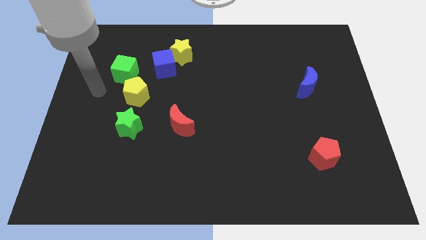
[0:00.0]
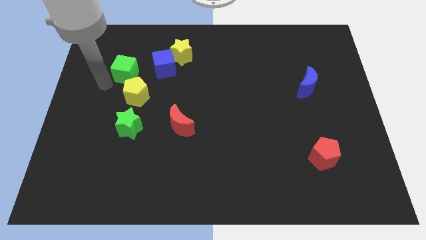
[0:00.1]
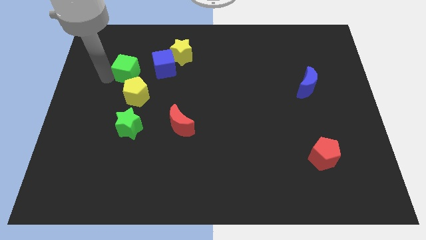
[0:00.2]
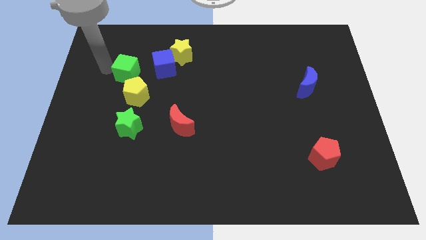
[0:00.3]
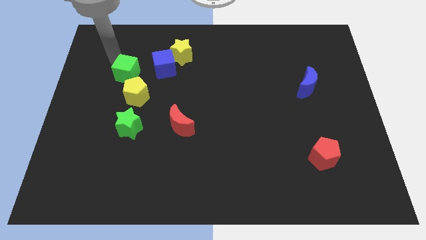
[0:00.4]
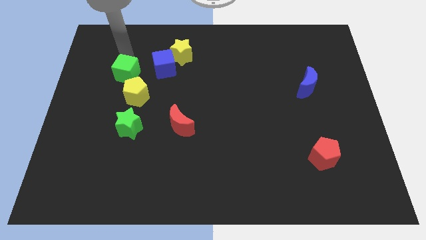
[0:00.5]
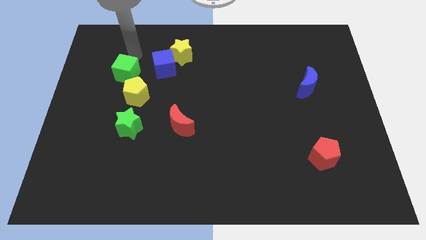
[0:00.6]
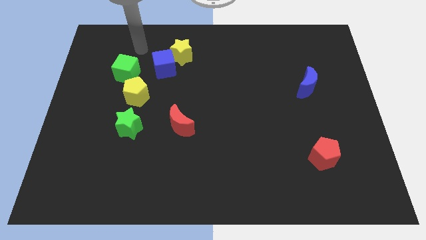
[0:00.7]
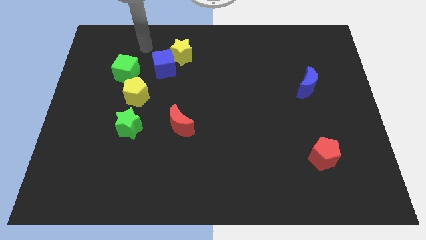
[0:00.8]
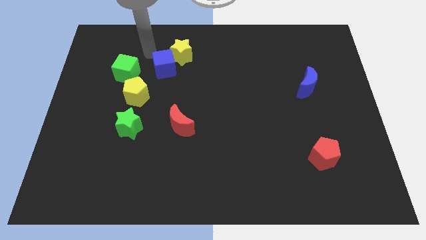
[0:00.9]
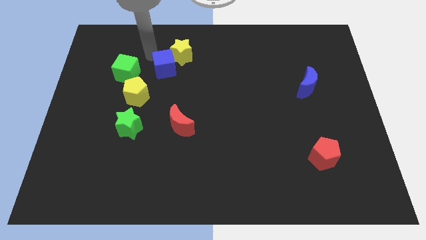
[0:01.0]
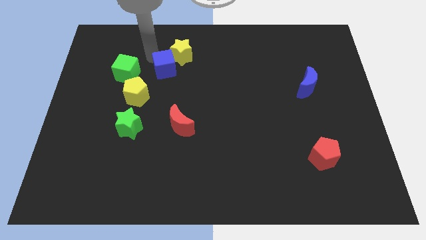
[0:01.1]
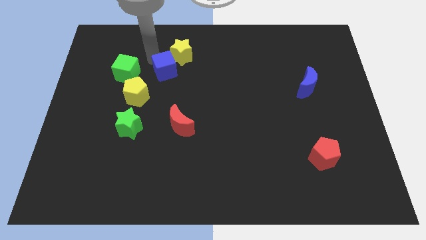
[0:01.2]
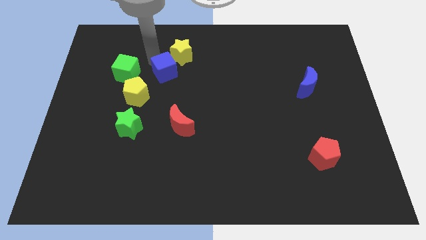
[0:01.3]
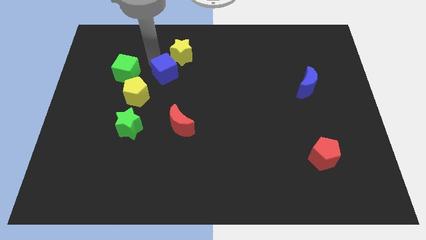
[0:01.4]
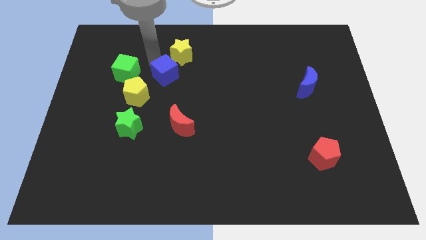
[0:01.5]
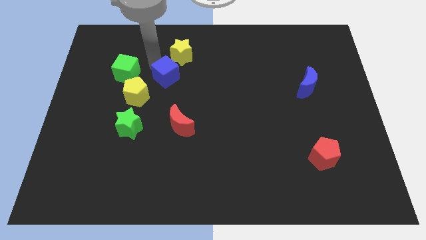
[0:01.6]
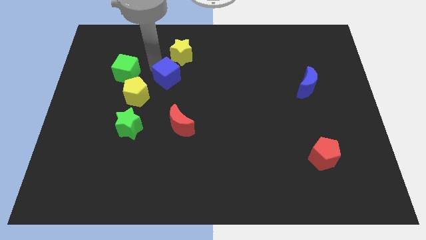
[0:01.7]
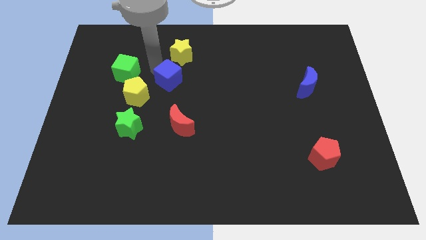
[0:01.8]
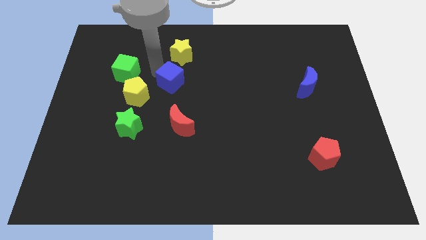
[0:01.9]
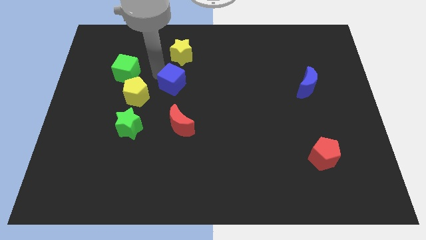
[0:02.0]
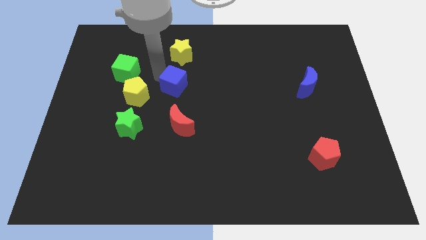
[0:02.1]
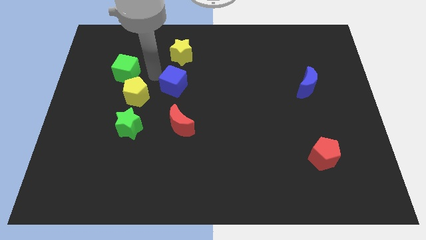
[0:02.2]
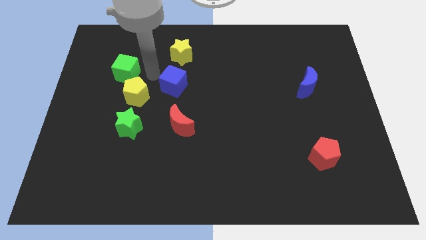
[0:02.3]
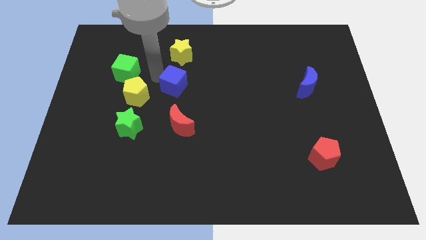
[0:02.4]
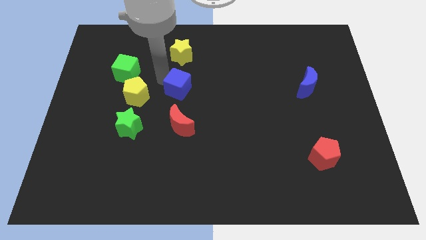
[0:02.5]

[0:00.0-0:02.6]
slide the blue cube downwards and to the right diagonally somewhat

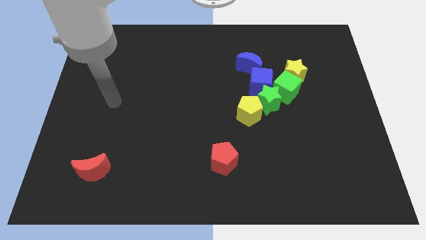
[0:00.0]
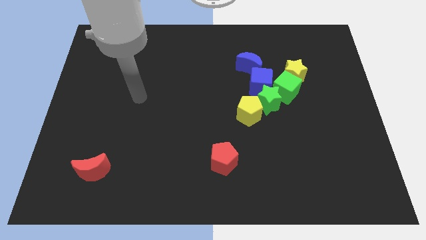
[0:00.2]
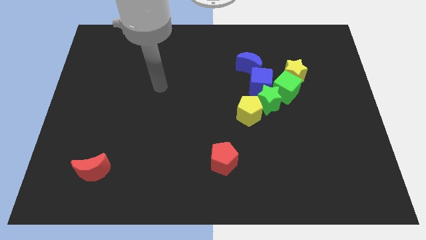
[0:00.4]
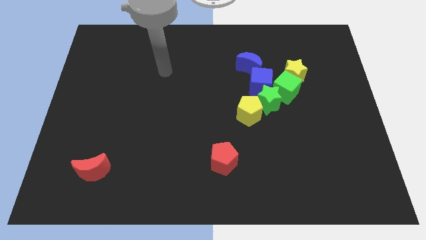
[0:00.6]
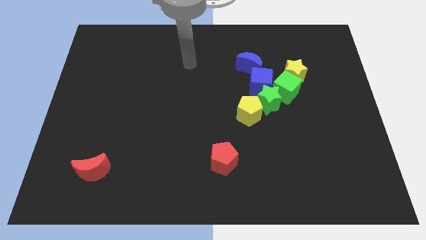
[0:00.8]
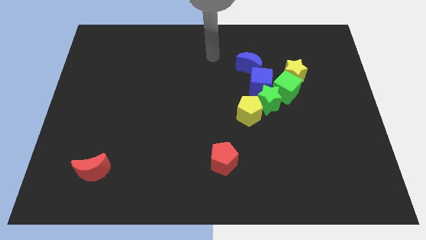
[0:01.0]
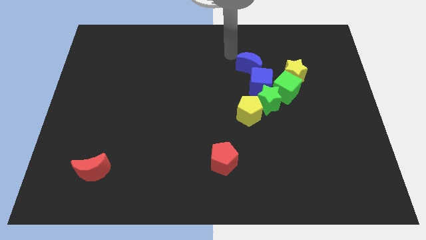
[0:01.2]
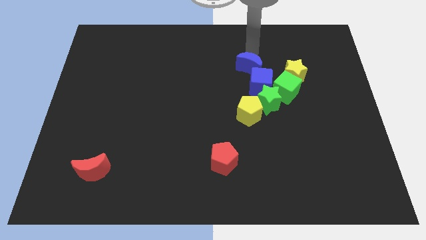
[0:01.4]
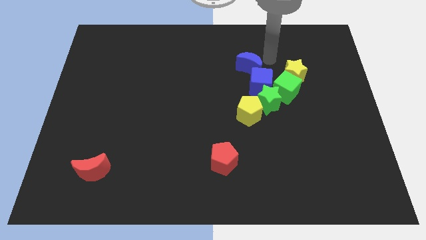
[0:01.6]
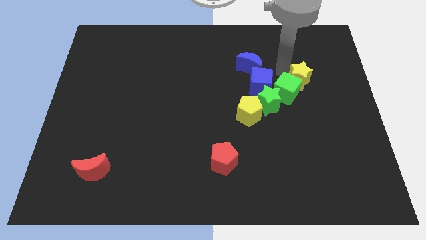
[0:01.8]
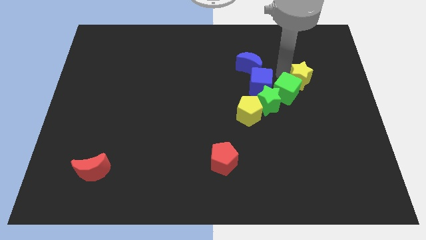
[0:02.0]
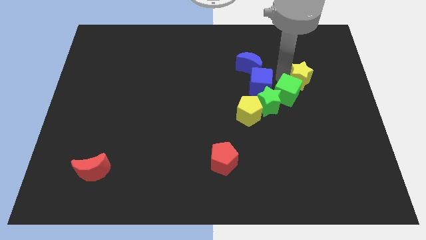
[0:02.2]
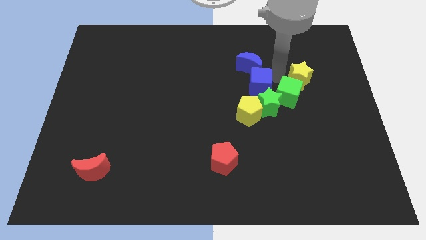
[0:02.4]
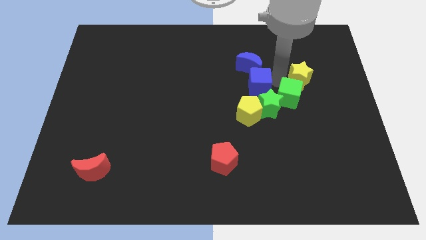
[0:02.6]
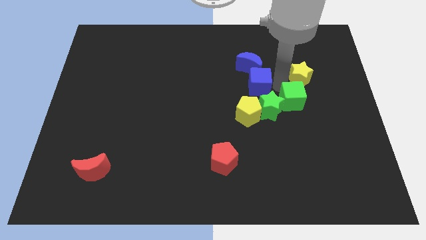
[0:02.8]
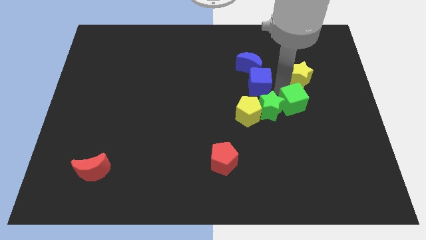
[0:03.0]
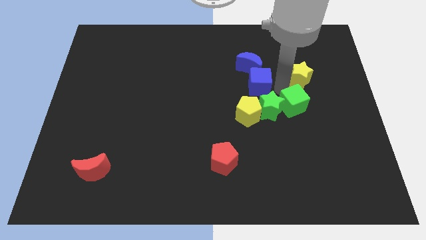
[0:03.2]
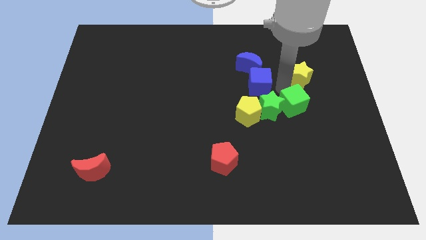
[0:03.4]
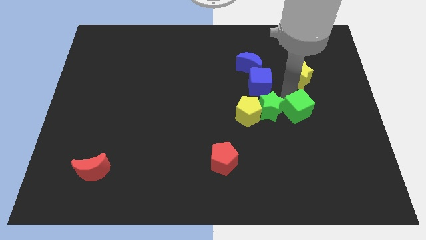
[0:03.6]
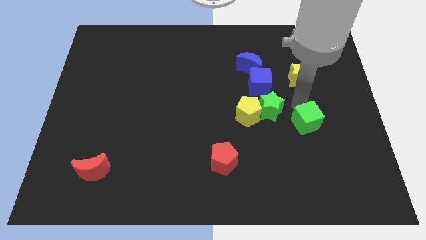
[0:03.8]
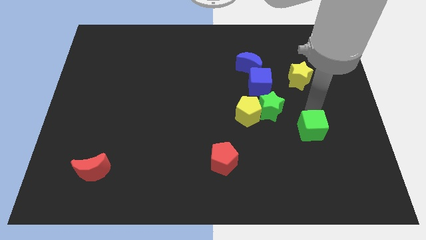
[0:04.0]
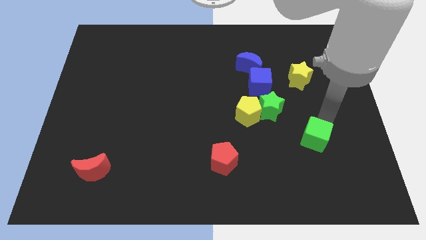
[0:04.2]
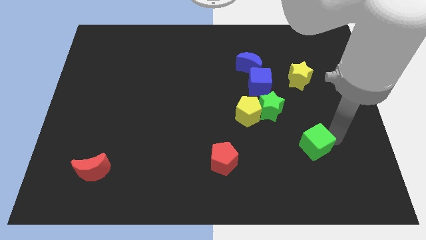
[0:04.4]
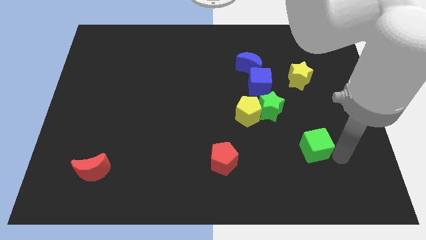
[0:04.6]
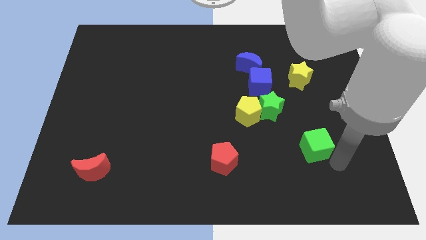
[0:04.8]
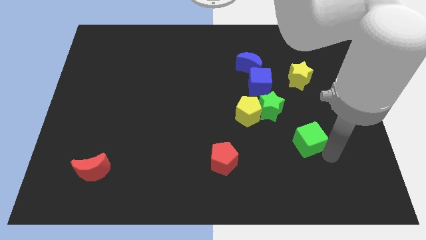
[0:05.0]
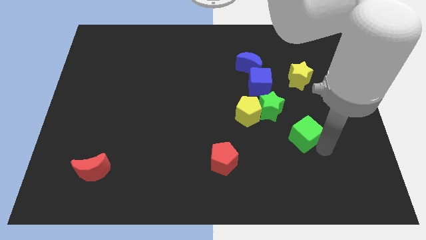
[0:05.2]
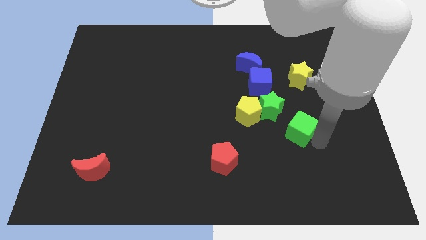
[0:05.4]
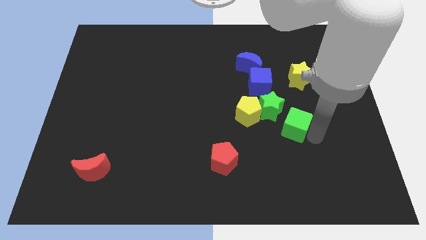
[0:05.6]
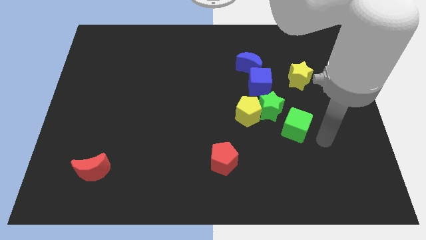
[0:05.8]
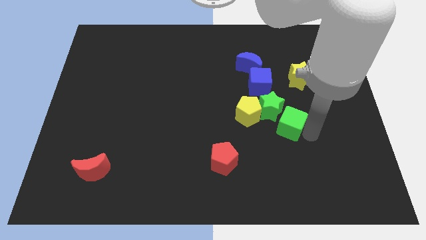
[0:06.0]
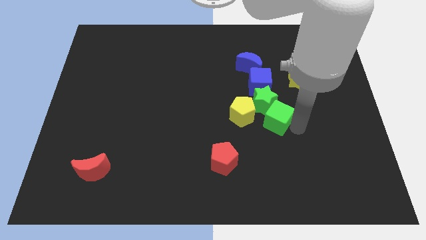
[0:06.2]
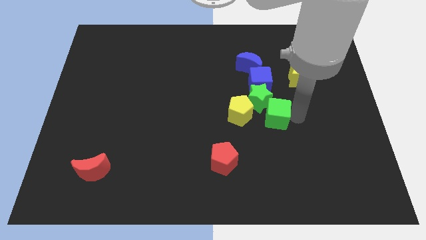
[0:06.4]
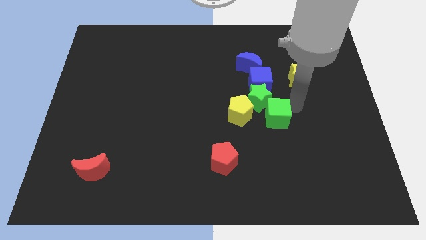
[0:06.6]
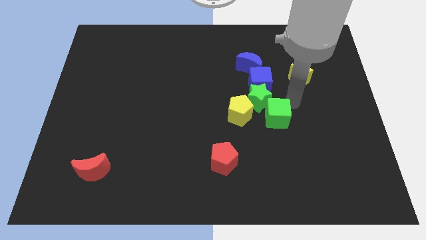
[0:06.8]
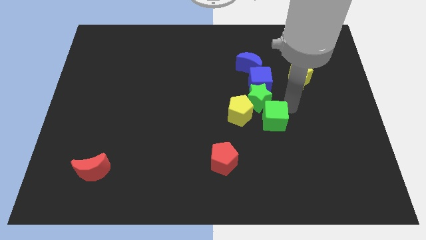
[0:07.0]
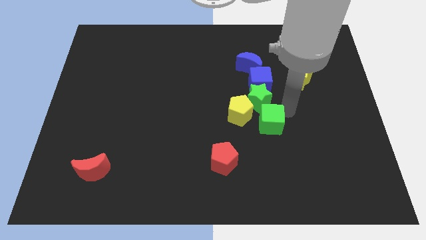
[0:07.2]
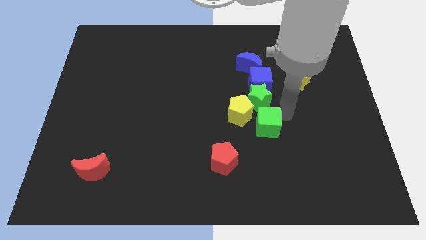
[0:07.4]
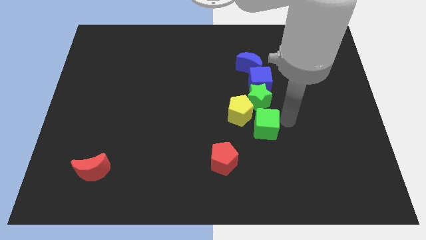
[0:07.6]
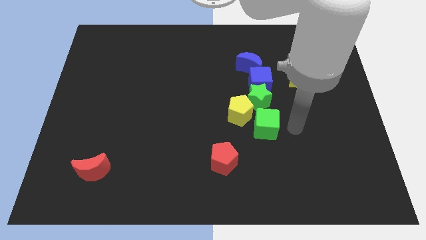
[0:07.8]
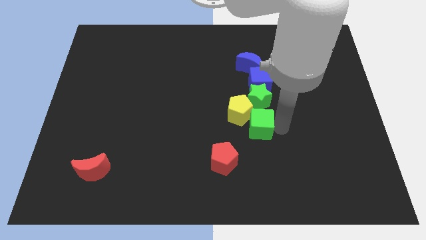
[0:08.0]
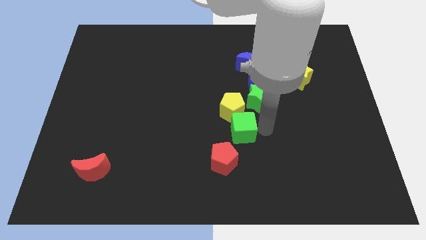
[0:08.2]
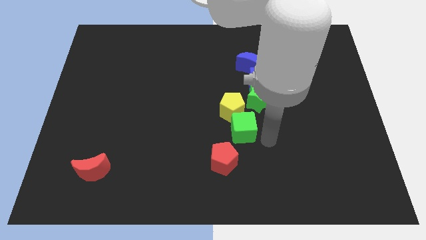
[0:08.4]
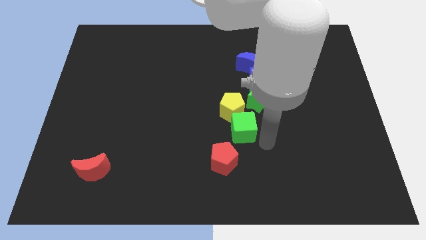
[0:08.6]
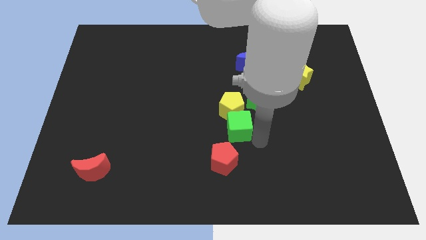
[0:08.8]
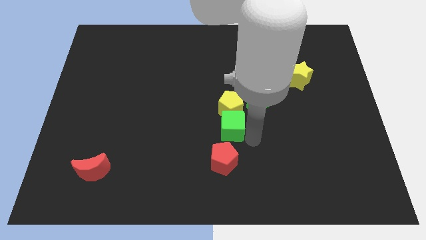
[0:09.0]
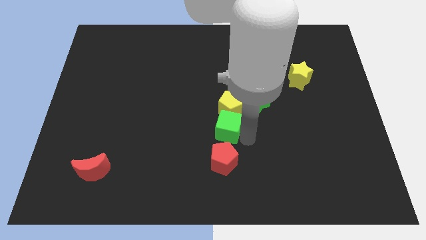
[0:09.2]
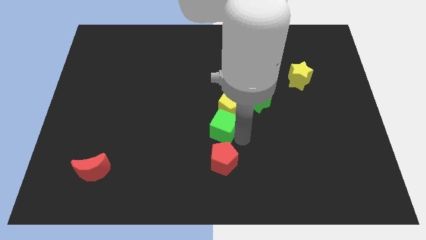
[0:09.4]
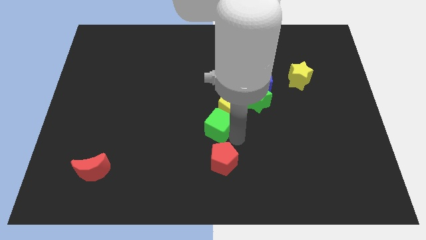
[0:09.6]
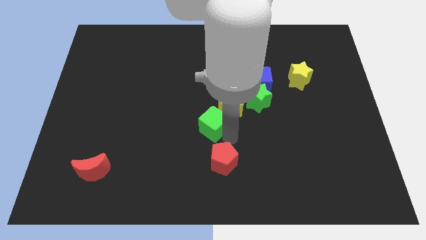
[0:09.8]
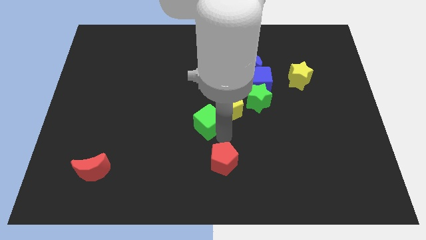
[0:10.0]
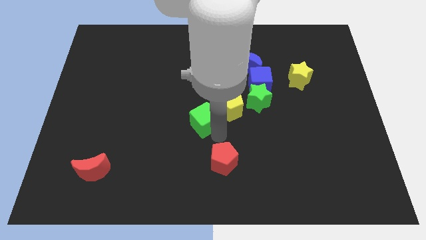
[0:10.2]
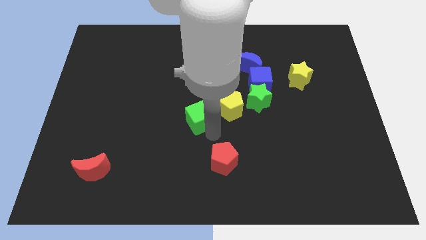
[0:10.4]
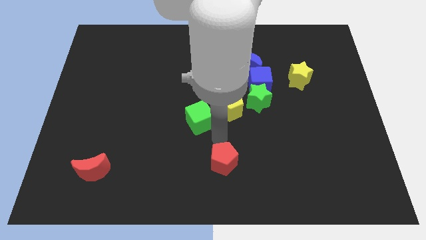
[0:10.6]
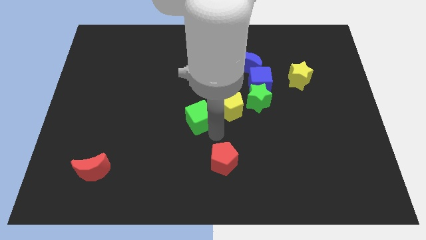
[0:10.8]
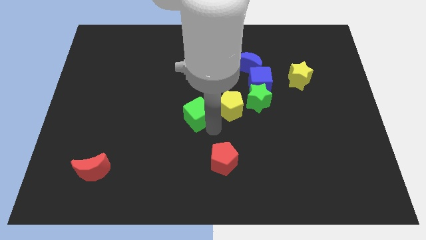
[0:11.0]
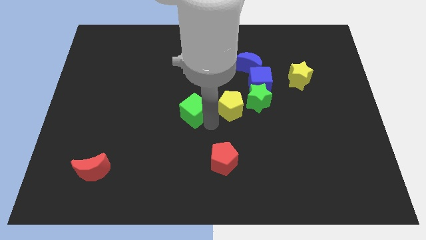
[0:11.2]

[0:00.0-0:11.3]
slide the green cube left

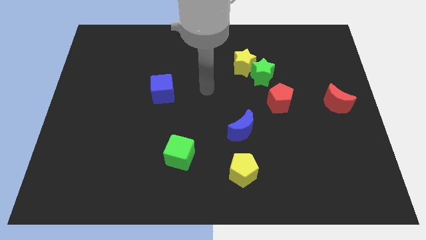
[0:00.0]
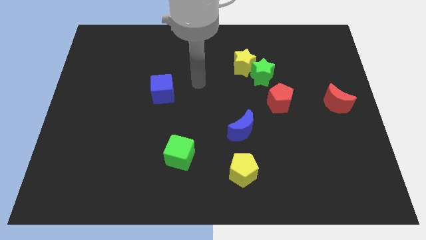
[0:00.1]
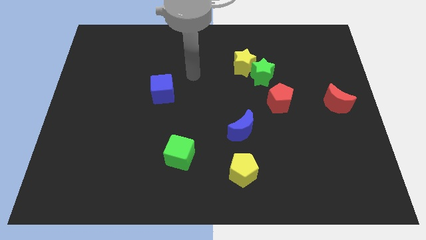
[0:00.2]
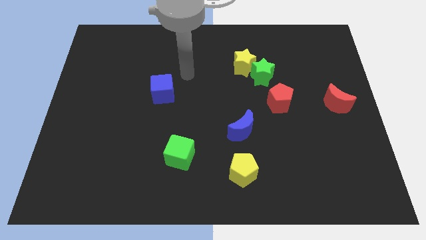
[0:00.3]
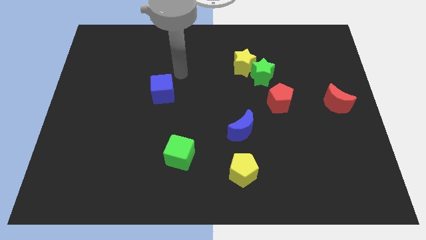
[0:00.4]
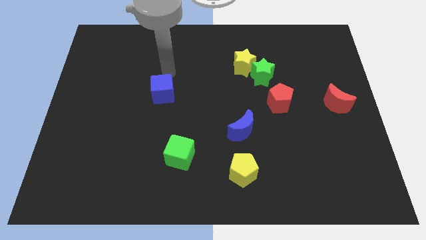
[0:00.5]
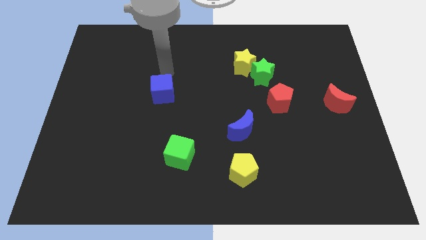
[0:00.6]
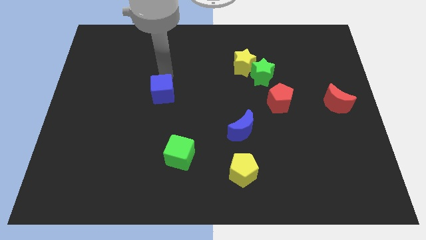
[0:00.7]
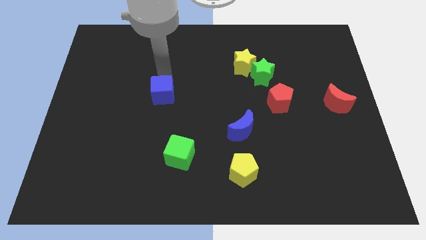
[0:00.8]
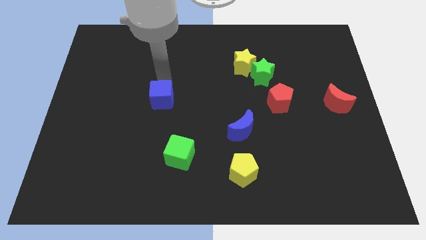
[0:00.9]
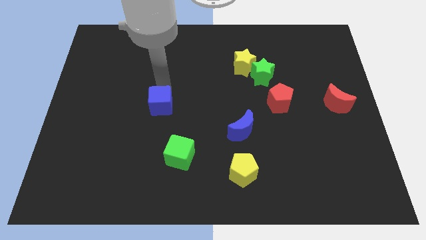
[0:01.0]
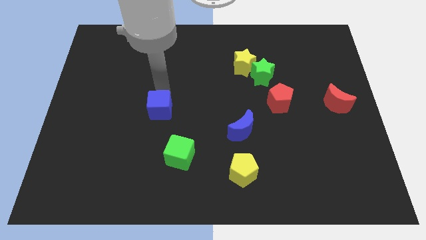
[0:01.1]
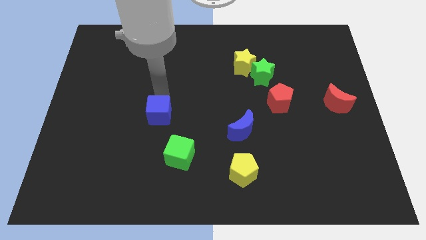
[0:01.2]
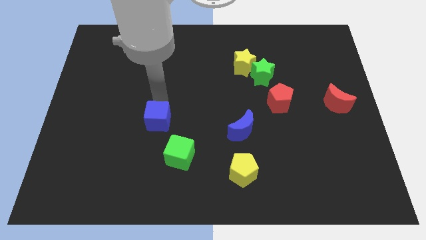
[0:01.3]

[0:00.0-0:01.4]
slightly push the blue cube downwards
